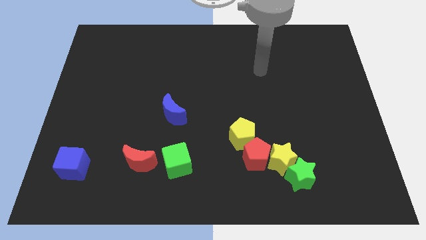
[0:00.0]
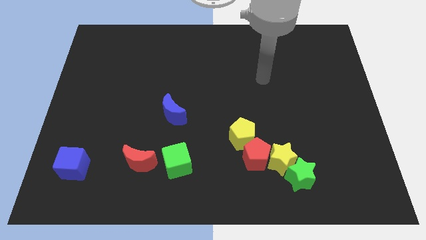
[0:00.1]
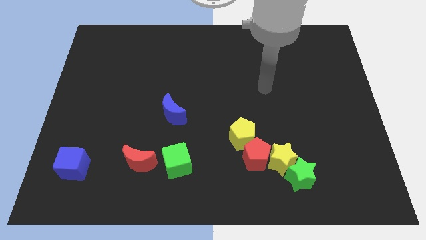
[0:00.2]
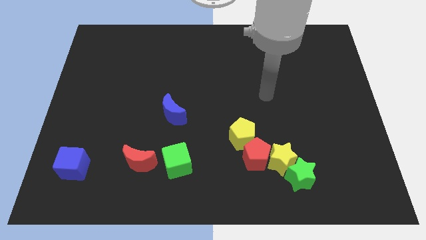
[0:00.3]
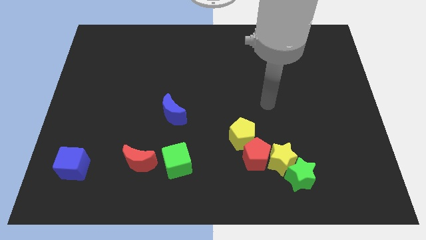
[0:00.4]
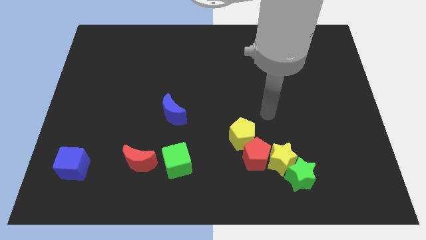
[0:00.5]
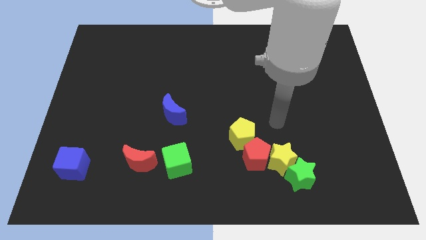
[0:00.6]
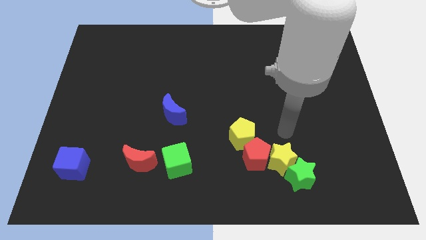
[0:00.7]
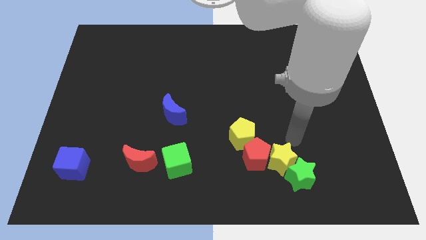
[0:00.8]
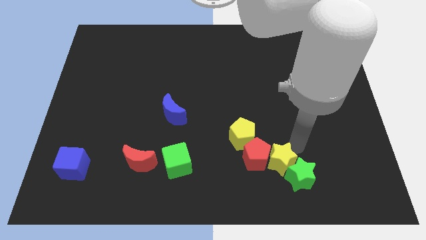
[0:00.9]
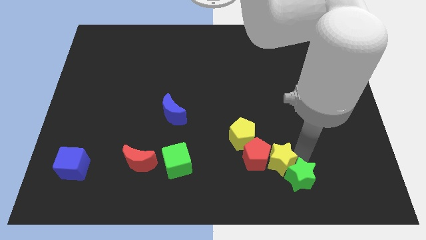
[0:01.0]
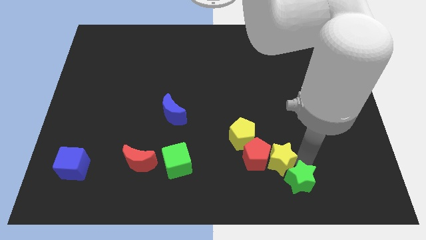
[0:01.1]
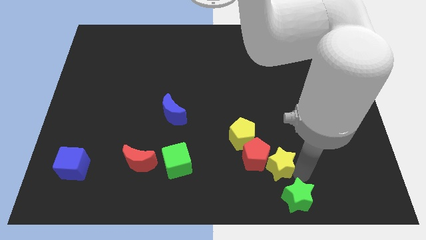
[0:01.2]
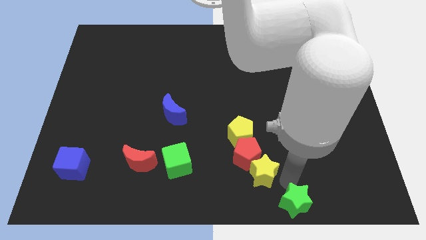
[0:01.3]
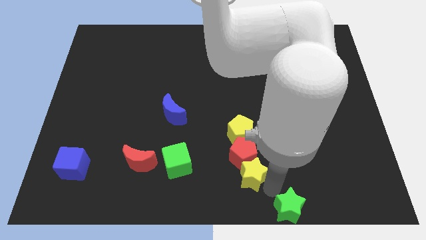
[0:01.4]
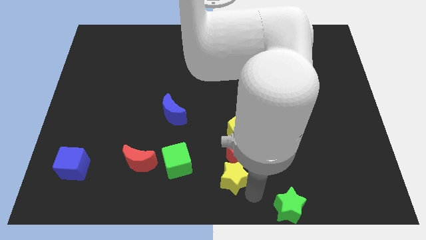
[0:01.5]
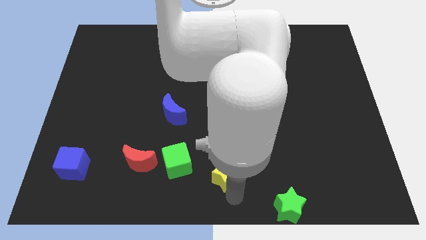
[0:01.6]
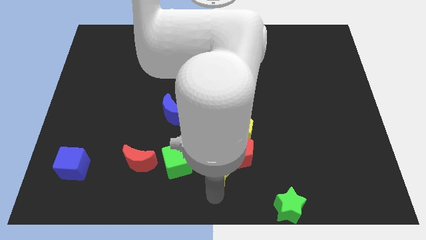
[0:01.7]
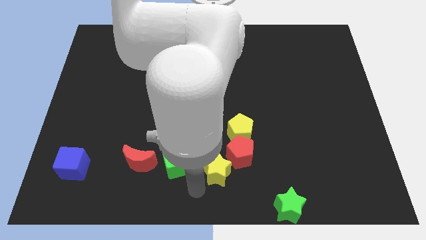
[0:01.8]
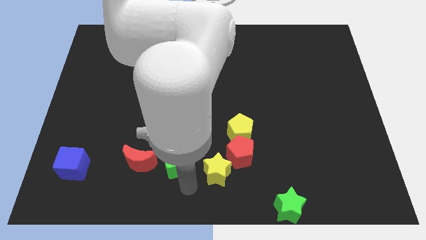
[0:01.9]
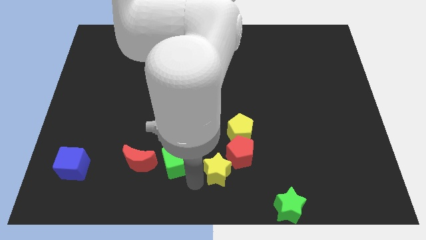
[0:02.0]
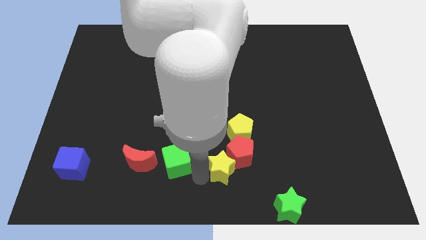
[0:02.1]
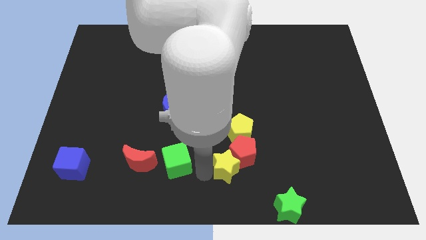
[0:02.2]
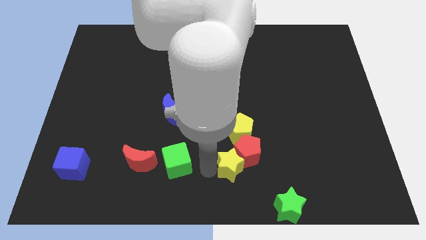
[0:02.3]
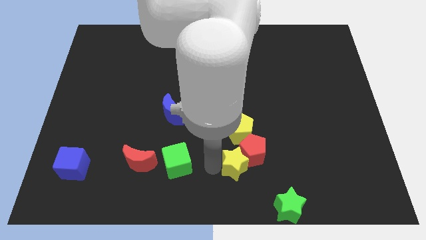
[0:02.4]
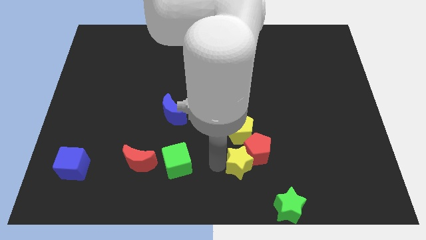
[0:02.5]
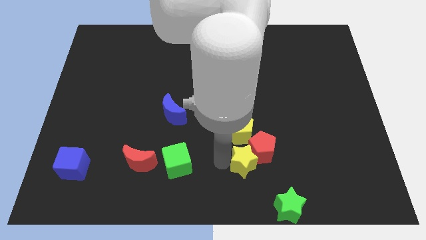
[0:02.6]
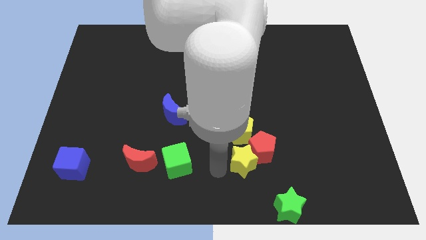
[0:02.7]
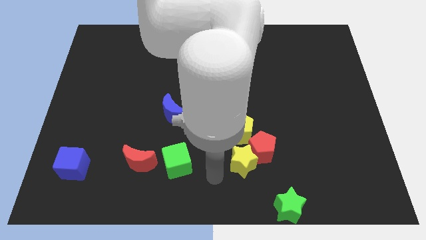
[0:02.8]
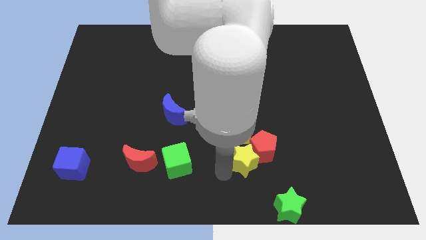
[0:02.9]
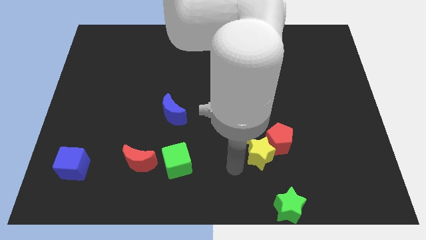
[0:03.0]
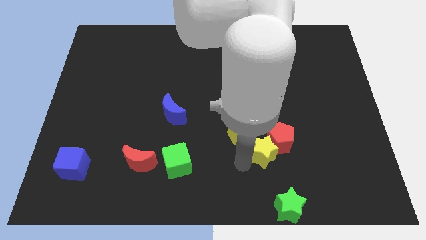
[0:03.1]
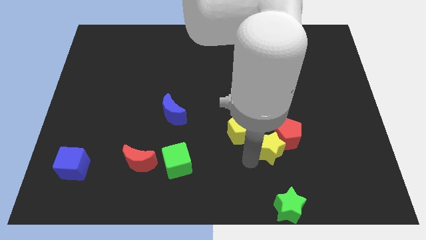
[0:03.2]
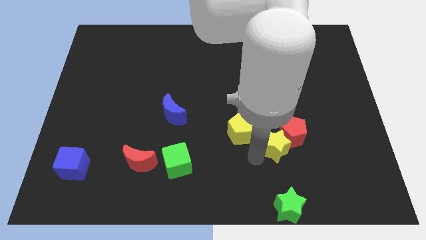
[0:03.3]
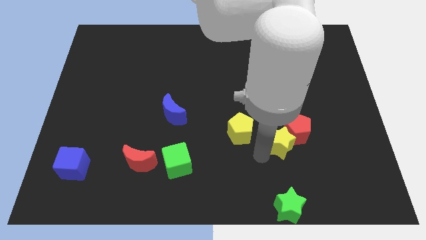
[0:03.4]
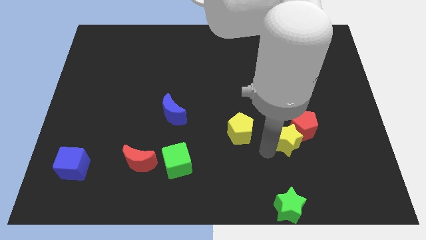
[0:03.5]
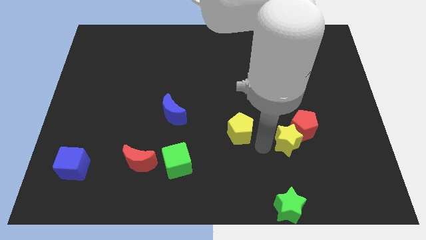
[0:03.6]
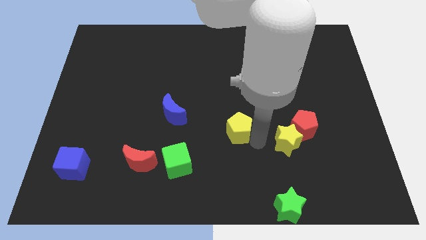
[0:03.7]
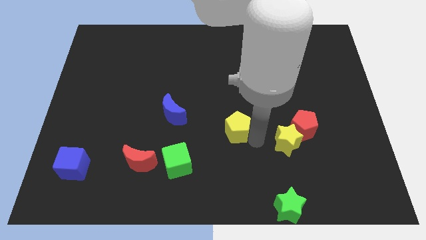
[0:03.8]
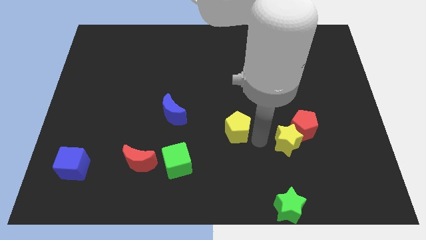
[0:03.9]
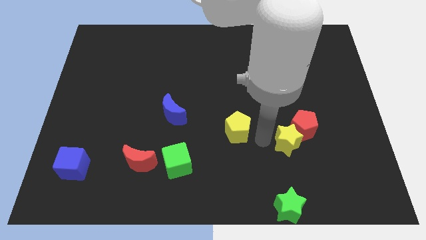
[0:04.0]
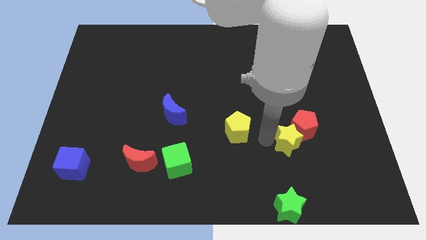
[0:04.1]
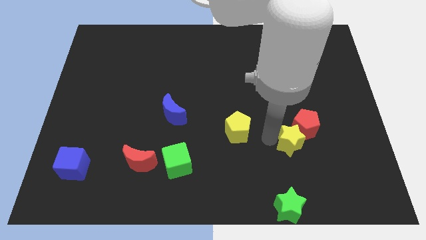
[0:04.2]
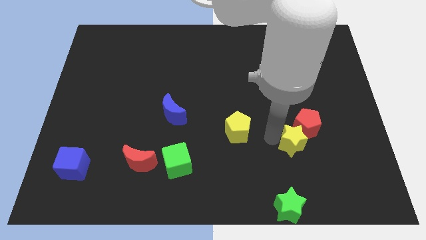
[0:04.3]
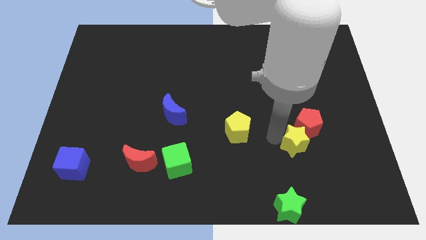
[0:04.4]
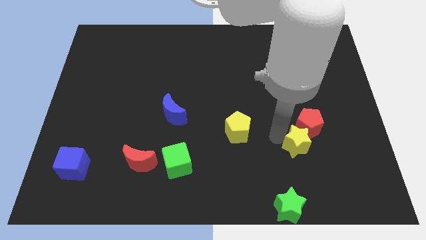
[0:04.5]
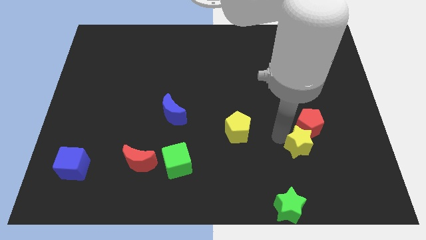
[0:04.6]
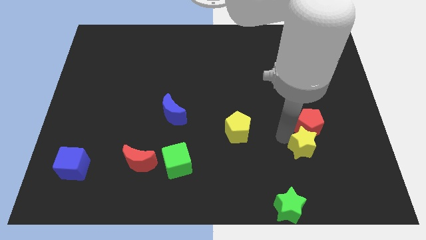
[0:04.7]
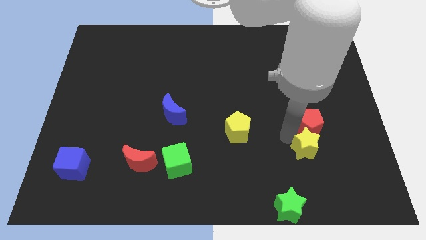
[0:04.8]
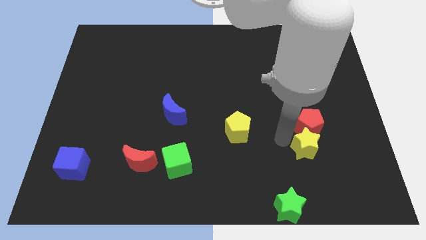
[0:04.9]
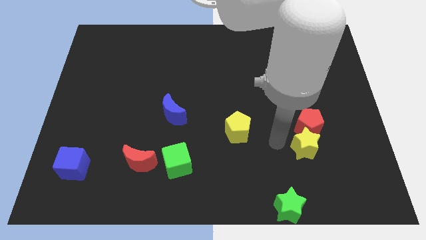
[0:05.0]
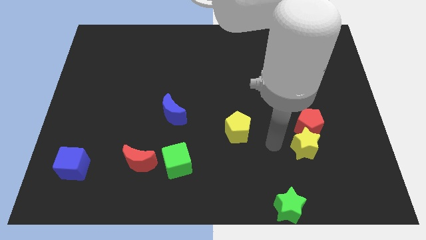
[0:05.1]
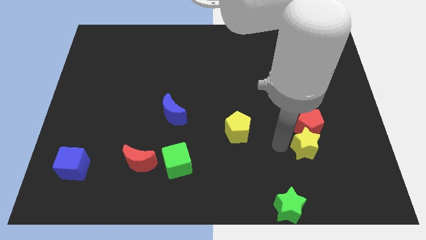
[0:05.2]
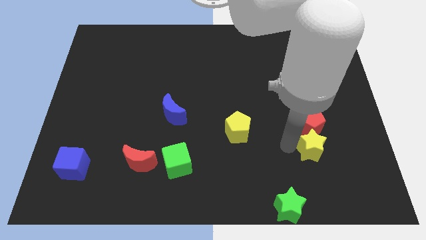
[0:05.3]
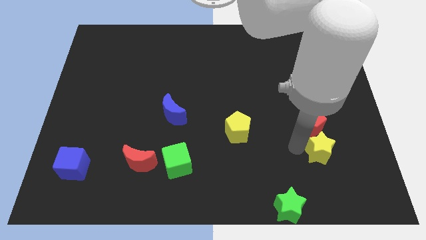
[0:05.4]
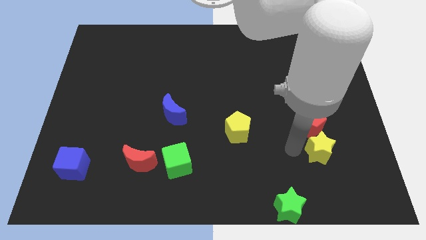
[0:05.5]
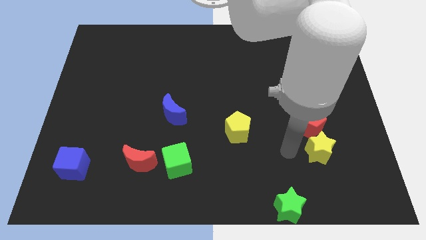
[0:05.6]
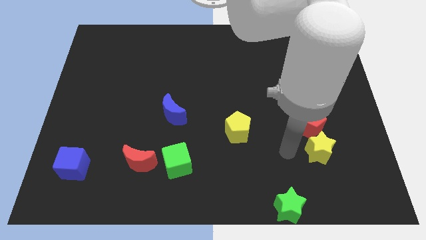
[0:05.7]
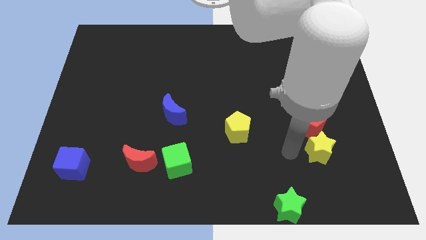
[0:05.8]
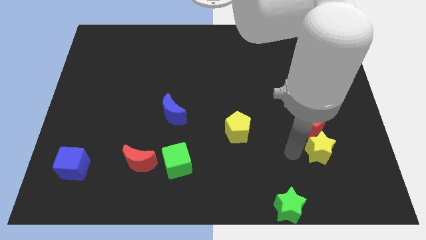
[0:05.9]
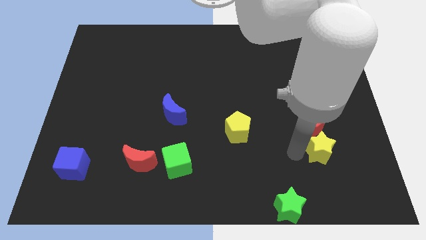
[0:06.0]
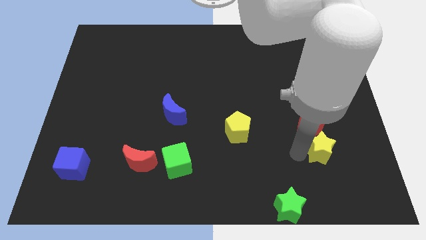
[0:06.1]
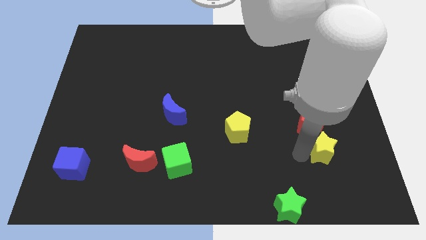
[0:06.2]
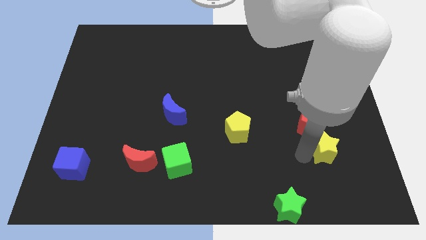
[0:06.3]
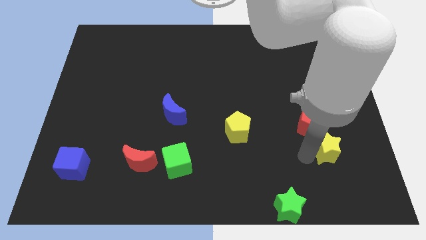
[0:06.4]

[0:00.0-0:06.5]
separate the yellow star from the group of blocks

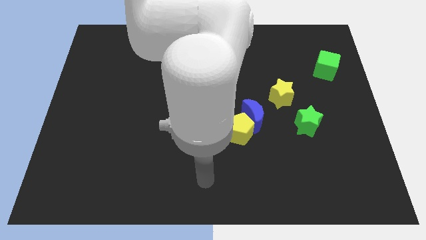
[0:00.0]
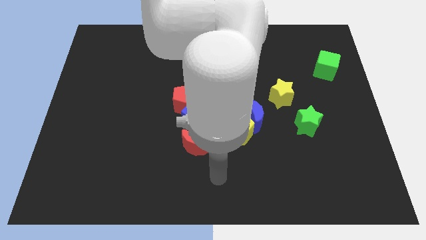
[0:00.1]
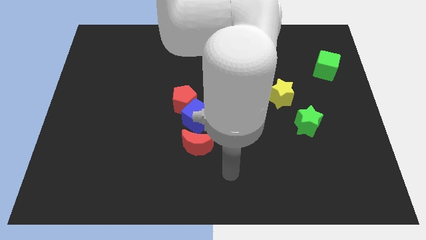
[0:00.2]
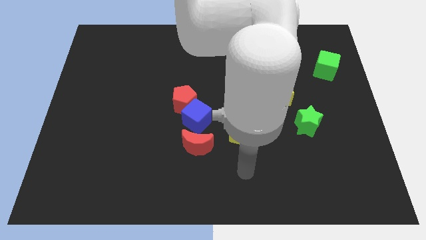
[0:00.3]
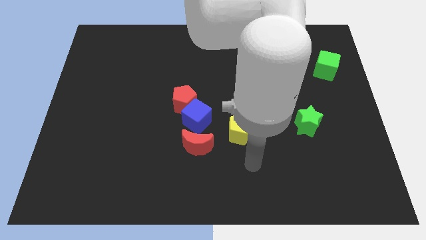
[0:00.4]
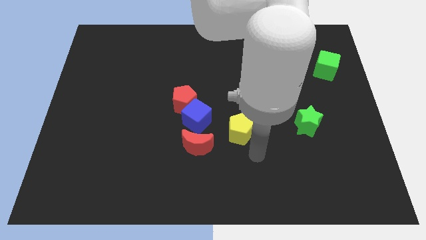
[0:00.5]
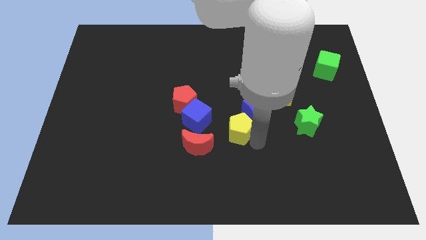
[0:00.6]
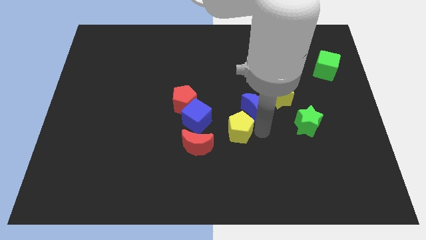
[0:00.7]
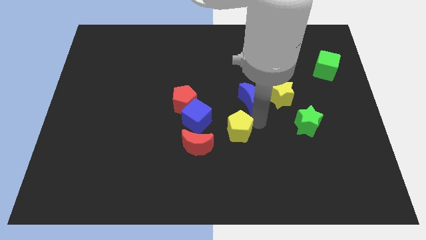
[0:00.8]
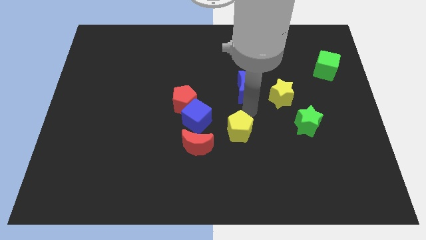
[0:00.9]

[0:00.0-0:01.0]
separate the yellow pentagon from the blue moon

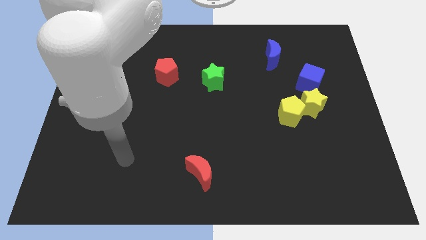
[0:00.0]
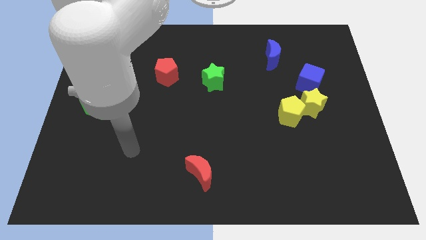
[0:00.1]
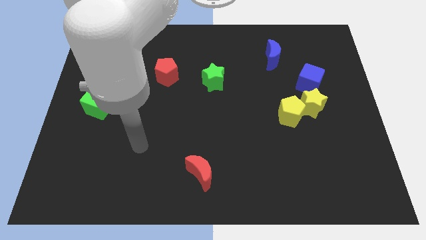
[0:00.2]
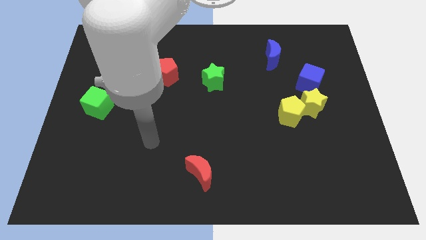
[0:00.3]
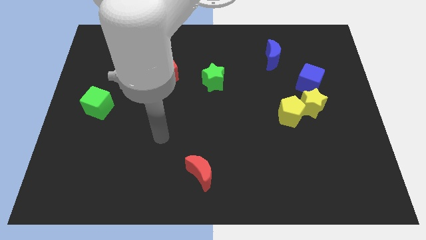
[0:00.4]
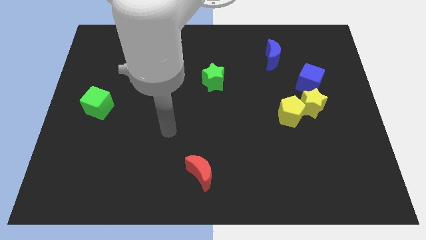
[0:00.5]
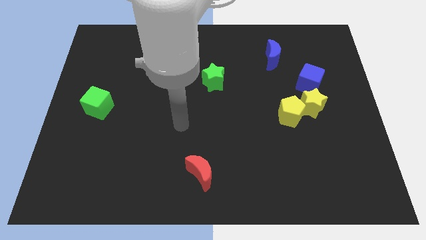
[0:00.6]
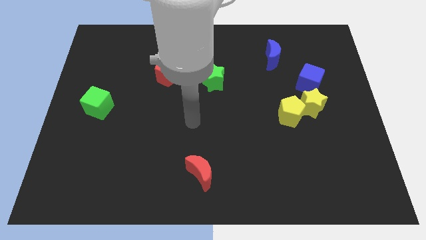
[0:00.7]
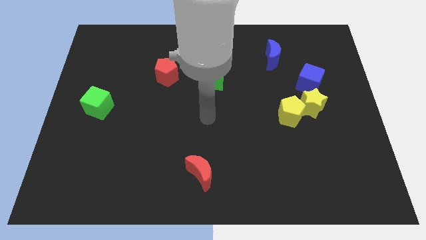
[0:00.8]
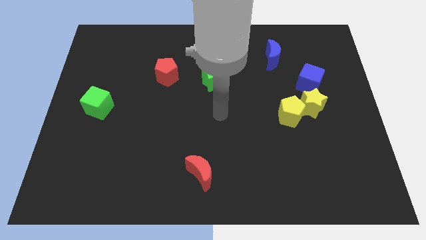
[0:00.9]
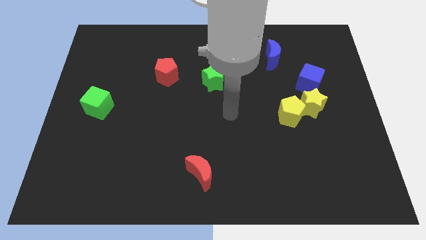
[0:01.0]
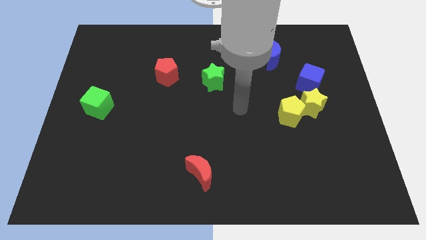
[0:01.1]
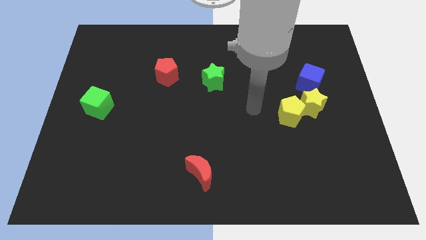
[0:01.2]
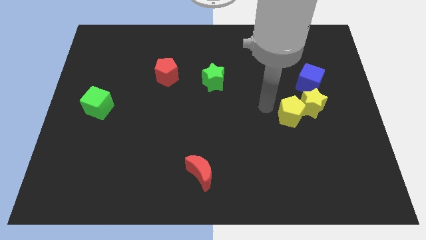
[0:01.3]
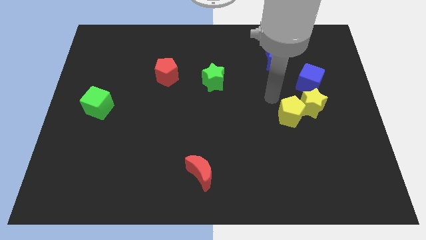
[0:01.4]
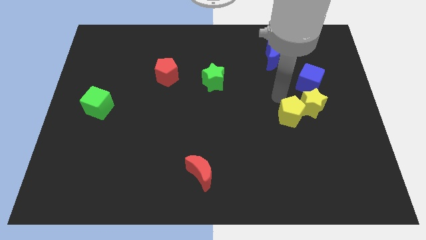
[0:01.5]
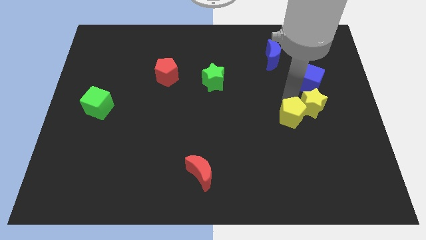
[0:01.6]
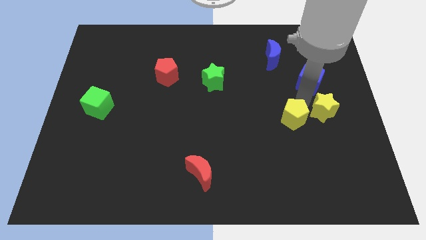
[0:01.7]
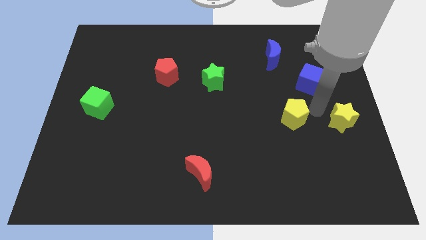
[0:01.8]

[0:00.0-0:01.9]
pull the yellow pentagon apart from the yellow star
